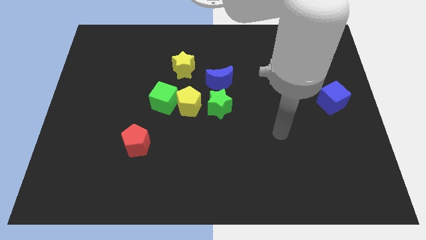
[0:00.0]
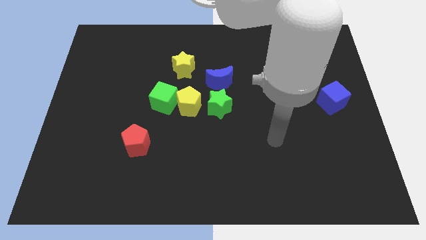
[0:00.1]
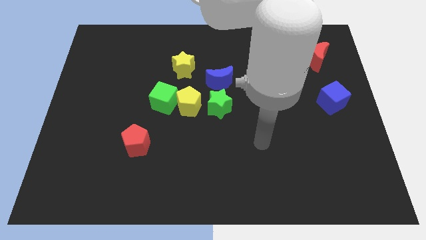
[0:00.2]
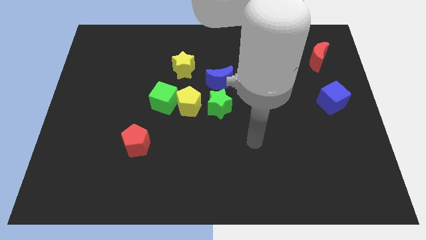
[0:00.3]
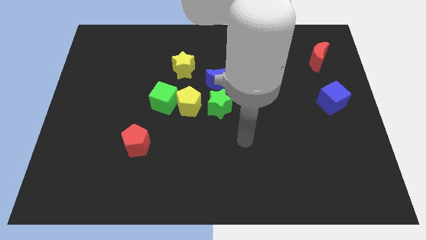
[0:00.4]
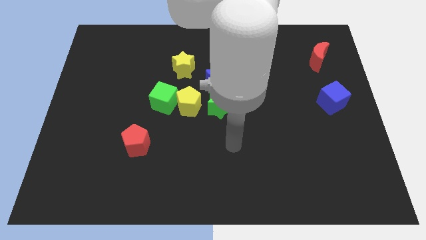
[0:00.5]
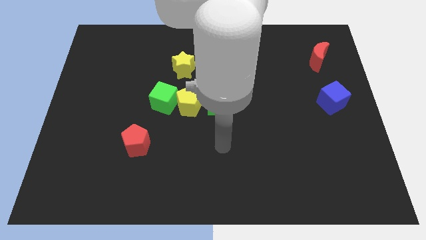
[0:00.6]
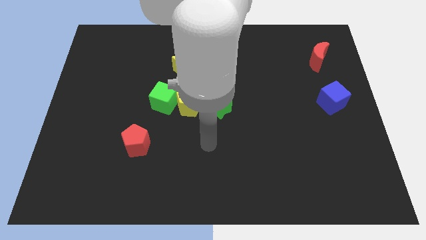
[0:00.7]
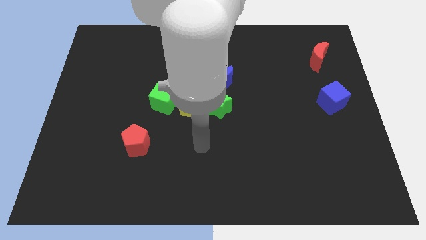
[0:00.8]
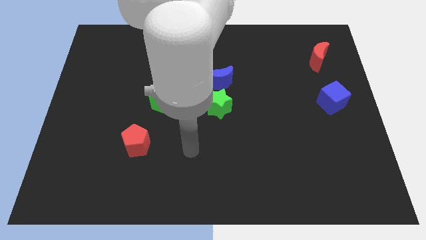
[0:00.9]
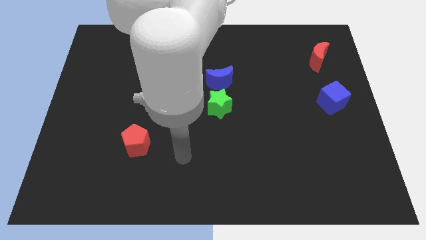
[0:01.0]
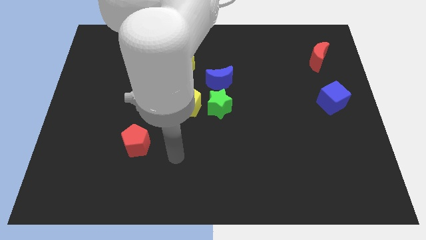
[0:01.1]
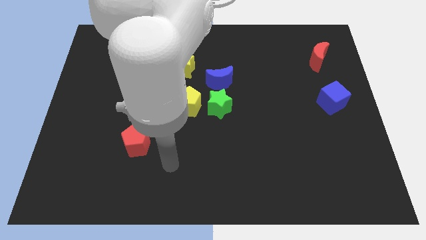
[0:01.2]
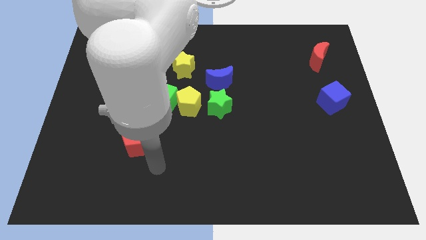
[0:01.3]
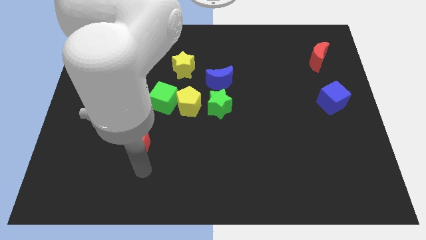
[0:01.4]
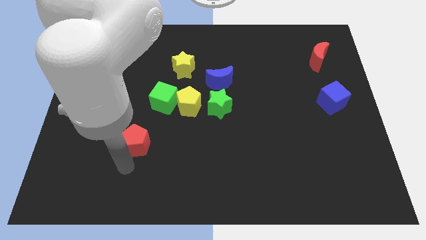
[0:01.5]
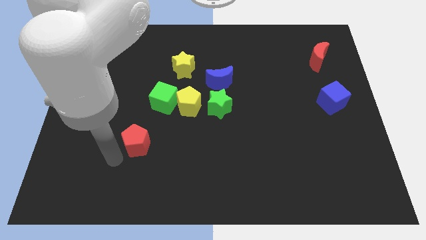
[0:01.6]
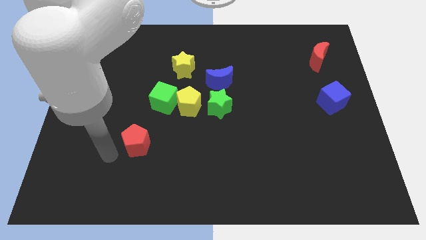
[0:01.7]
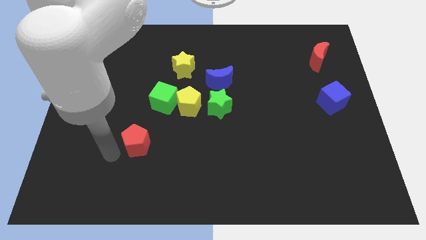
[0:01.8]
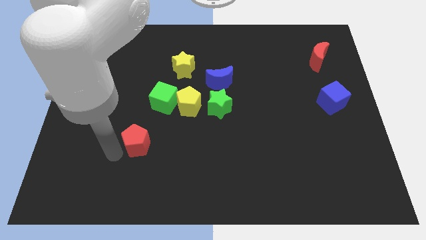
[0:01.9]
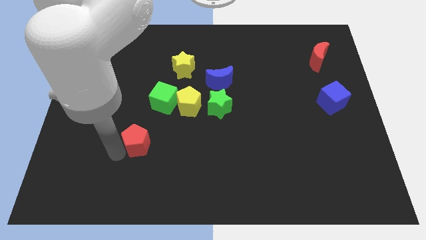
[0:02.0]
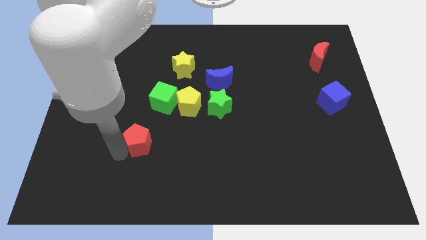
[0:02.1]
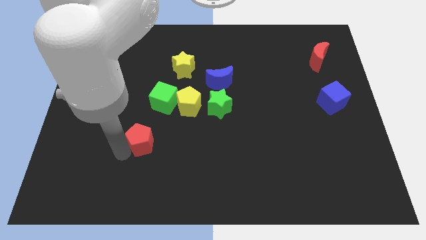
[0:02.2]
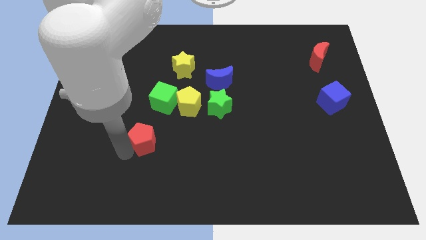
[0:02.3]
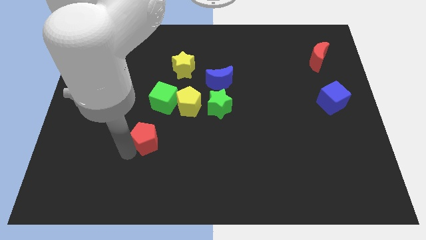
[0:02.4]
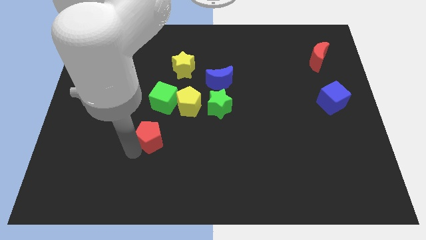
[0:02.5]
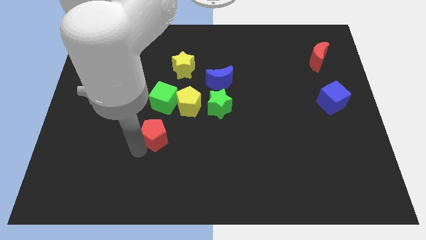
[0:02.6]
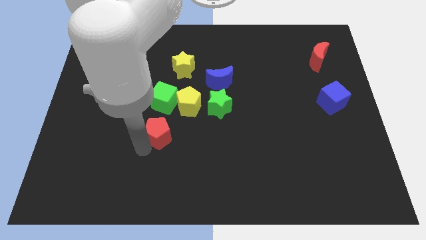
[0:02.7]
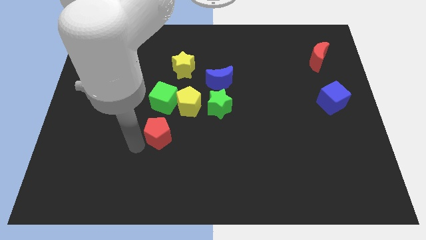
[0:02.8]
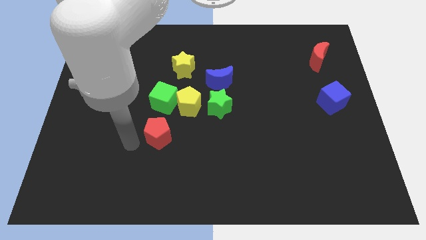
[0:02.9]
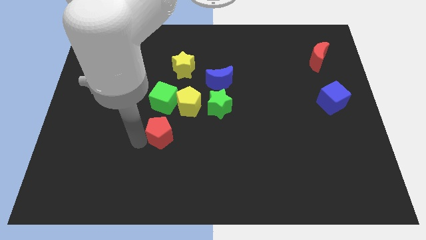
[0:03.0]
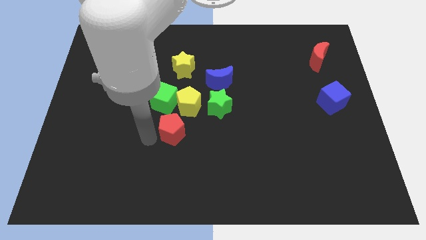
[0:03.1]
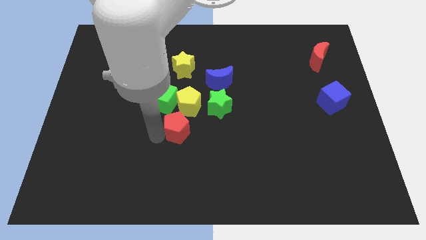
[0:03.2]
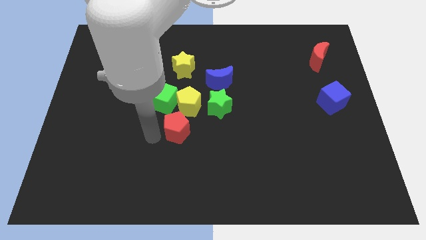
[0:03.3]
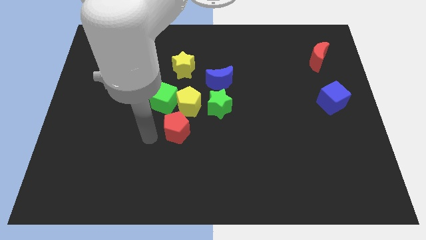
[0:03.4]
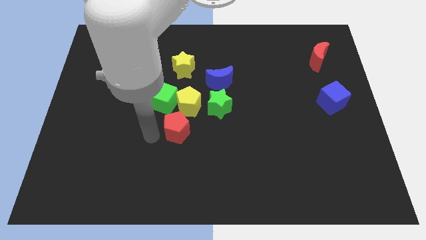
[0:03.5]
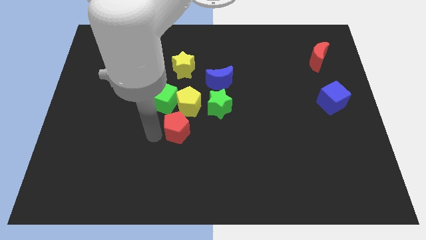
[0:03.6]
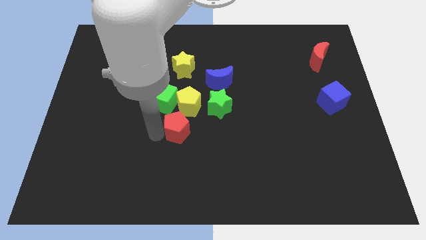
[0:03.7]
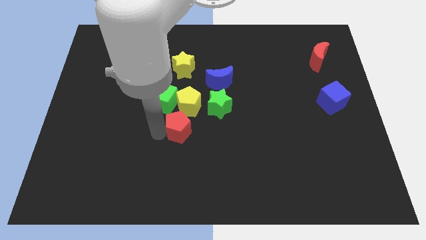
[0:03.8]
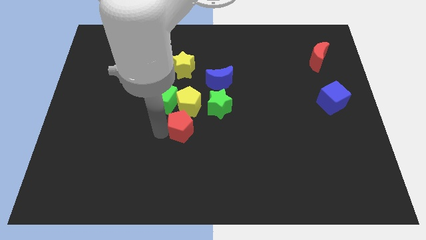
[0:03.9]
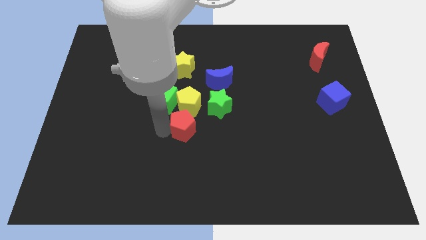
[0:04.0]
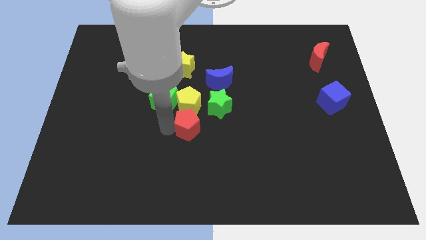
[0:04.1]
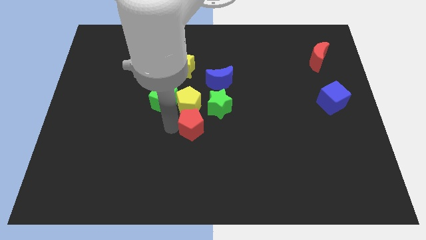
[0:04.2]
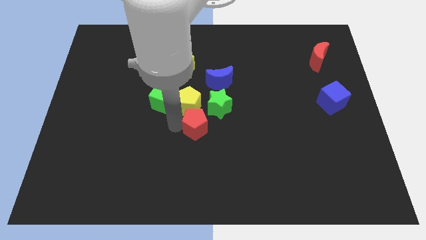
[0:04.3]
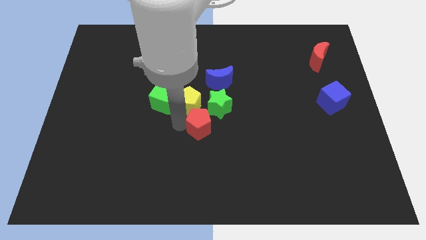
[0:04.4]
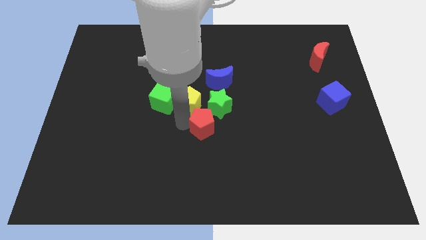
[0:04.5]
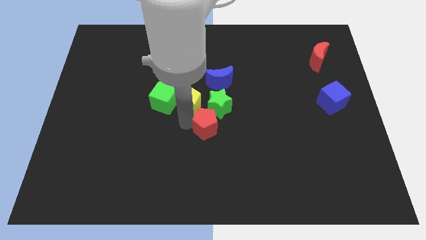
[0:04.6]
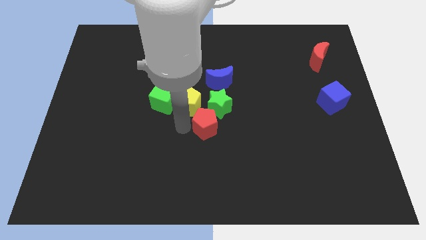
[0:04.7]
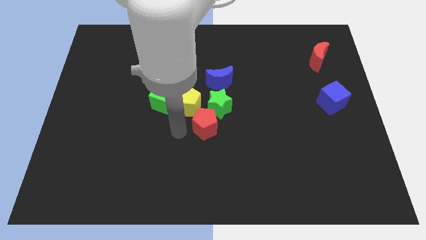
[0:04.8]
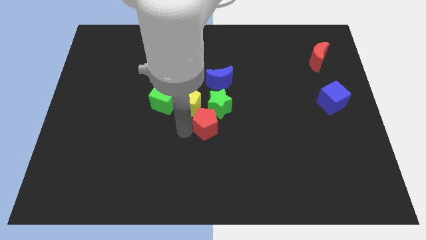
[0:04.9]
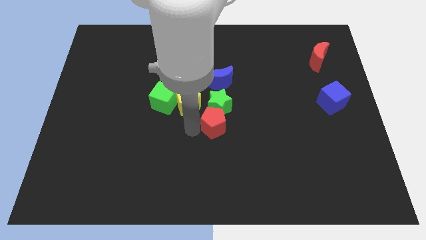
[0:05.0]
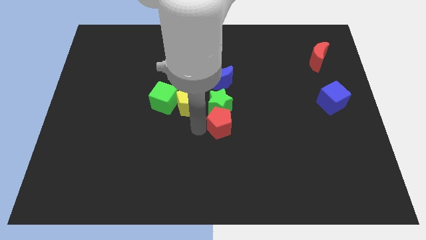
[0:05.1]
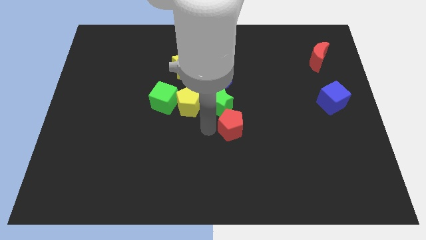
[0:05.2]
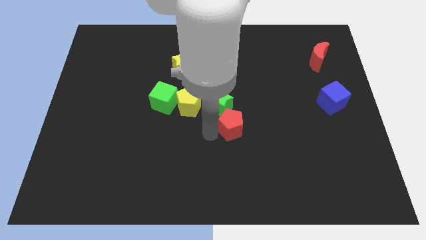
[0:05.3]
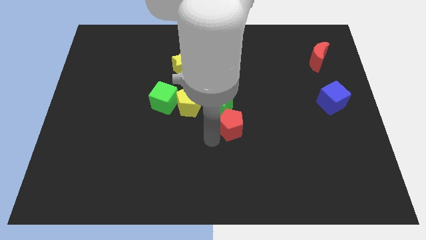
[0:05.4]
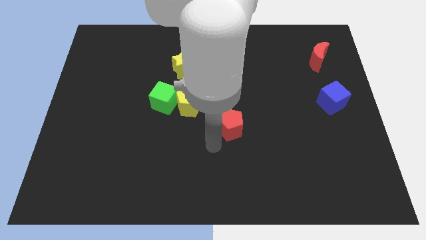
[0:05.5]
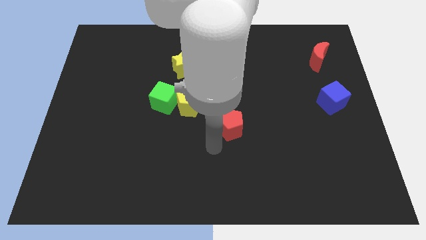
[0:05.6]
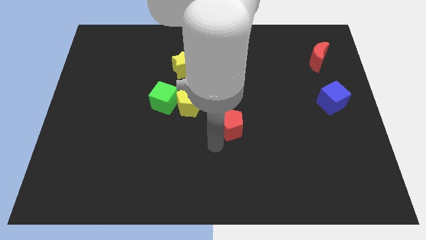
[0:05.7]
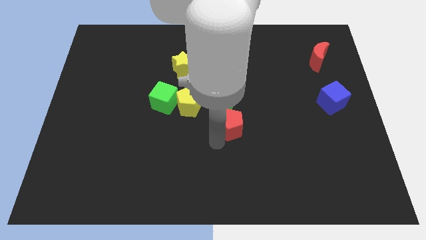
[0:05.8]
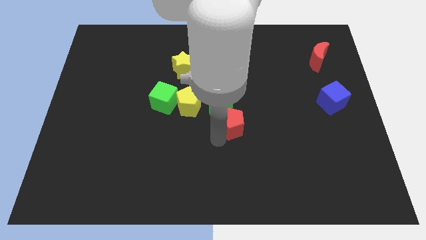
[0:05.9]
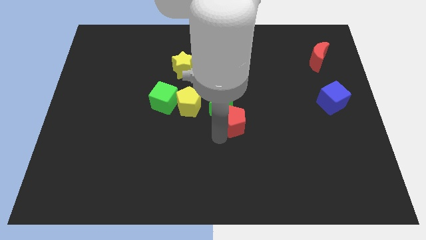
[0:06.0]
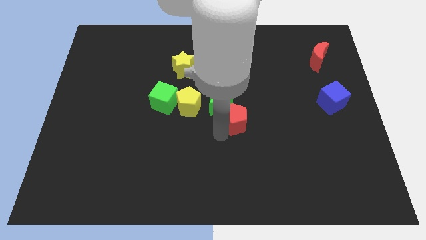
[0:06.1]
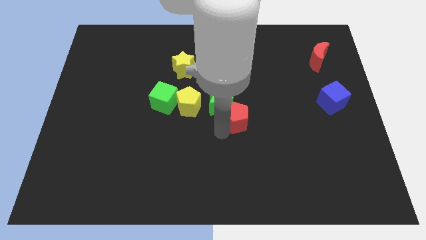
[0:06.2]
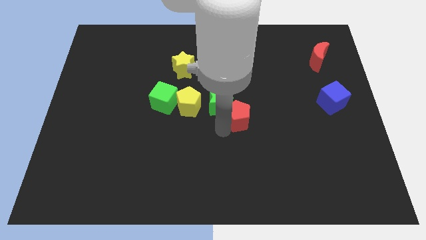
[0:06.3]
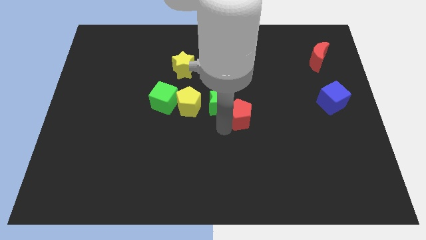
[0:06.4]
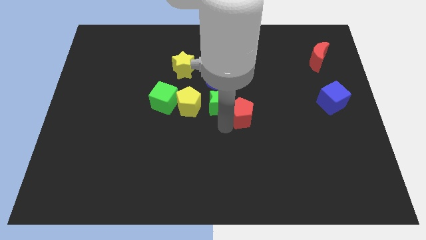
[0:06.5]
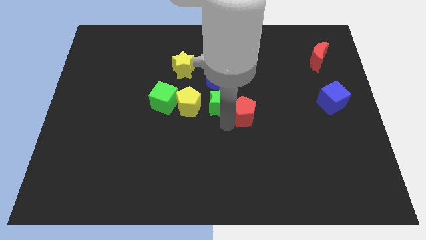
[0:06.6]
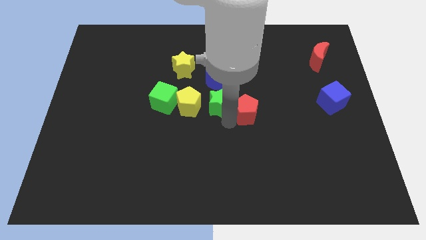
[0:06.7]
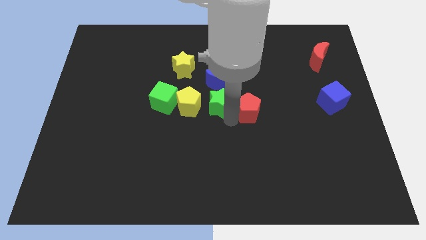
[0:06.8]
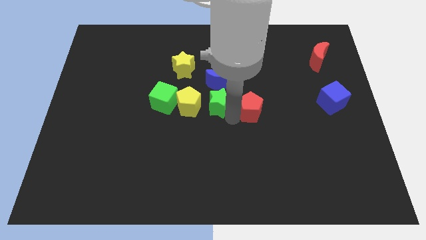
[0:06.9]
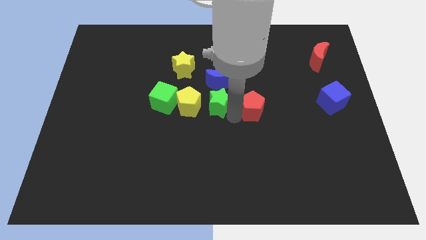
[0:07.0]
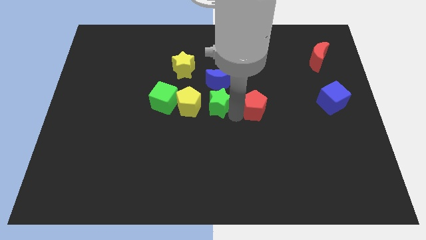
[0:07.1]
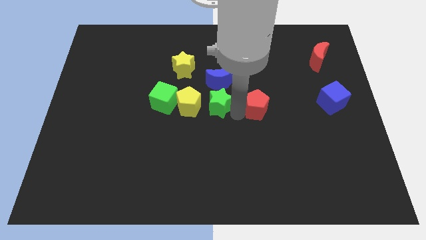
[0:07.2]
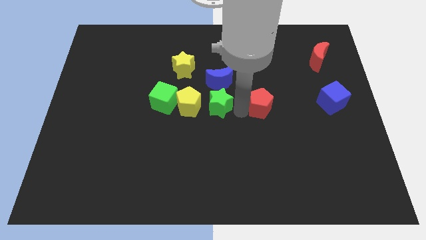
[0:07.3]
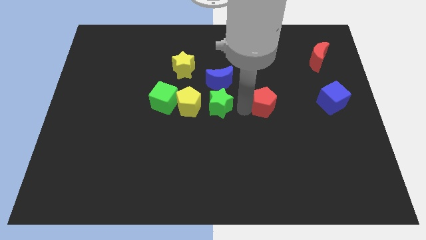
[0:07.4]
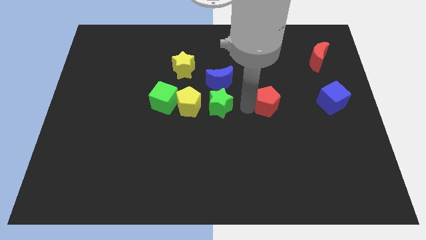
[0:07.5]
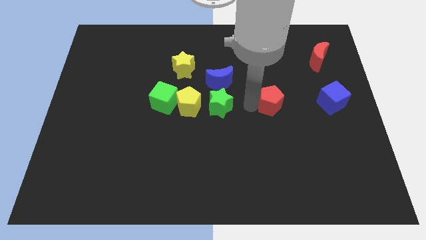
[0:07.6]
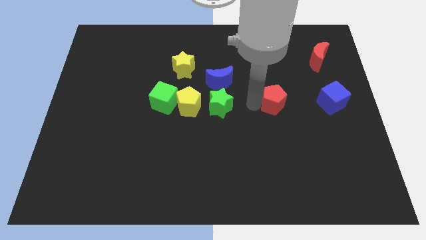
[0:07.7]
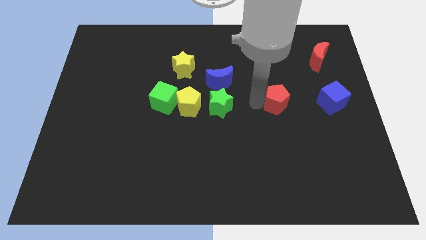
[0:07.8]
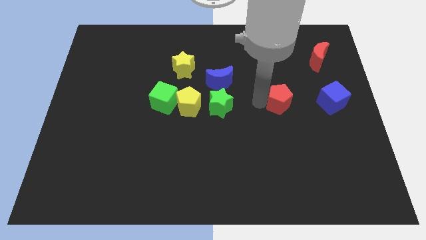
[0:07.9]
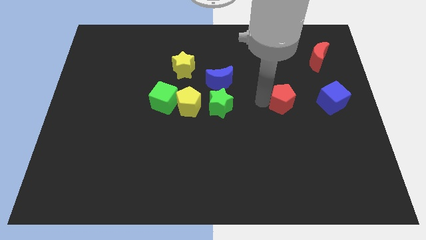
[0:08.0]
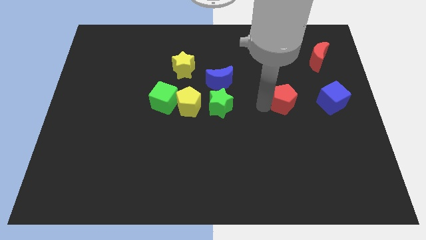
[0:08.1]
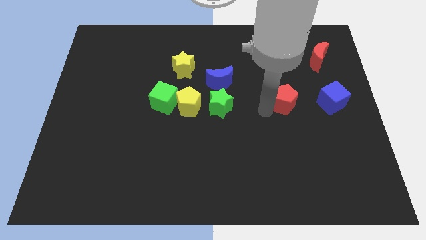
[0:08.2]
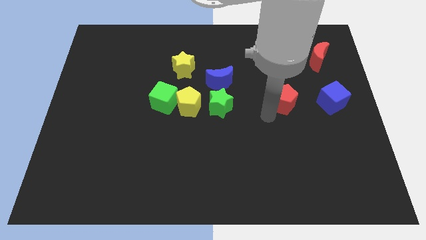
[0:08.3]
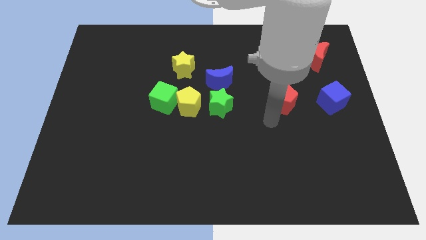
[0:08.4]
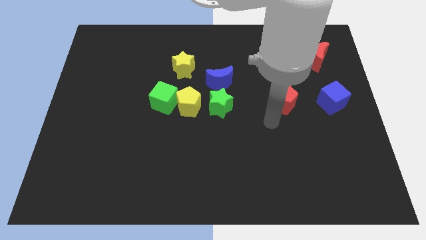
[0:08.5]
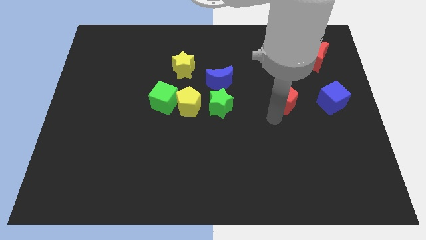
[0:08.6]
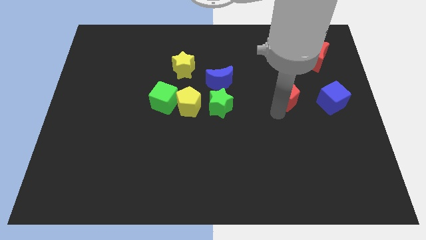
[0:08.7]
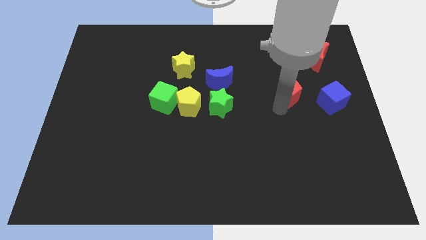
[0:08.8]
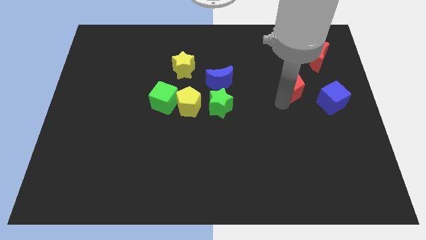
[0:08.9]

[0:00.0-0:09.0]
slide the red pentagon diagonally up and to the left of the blue cube
